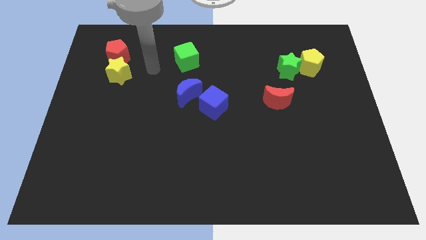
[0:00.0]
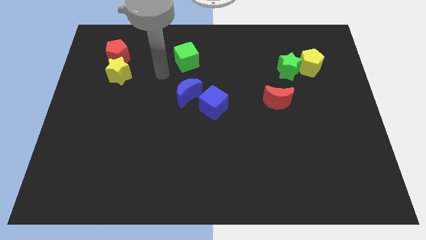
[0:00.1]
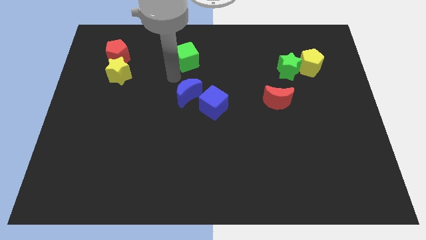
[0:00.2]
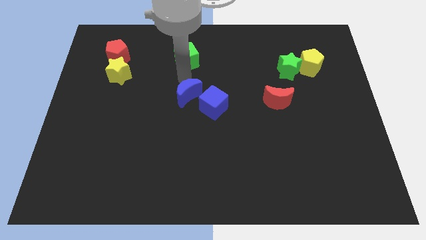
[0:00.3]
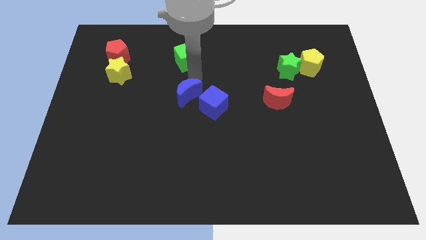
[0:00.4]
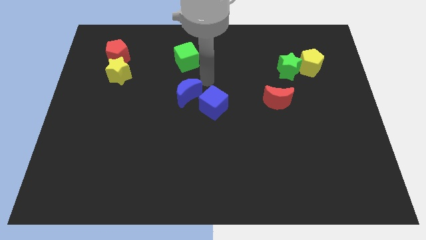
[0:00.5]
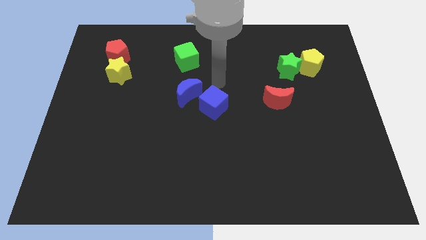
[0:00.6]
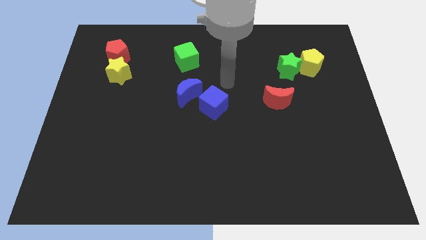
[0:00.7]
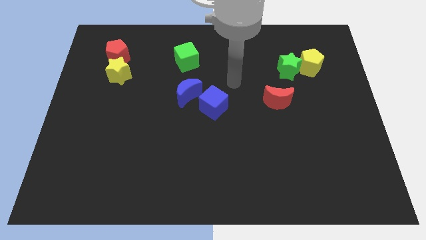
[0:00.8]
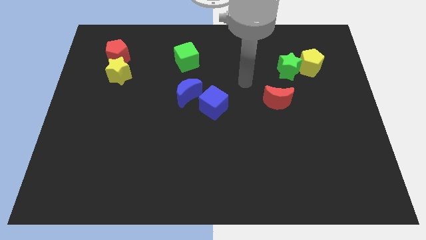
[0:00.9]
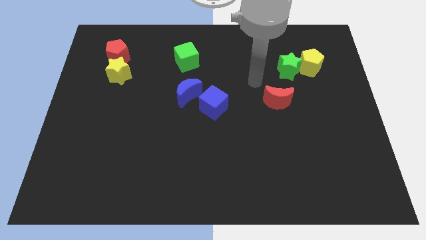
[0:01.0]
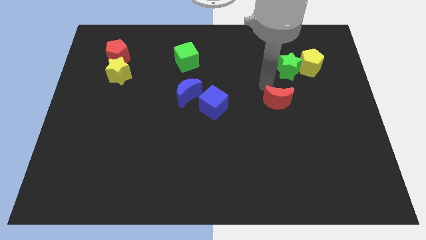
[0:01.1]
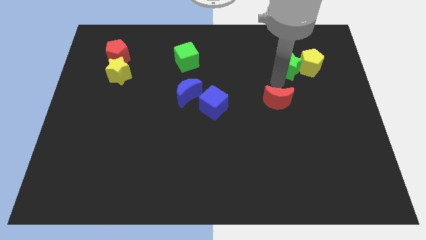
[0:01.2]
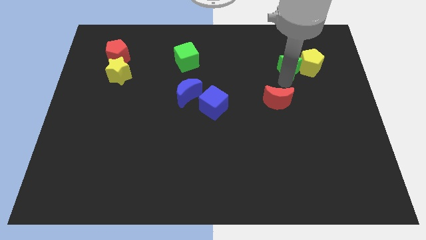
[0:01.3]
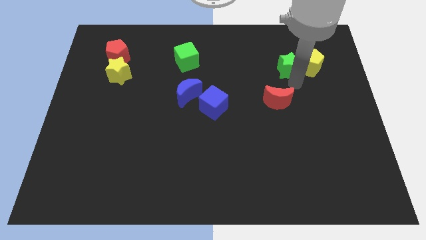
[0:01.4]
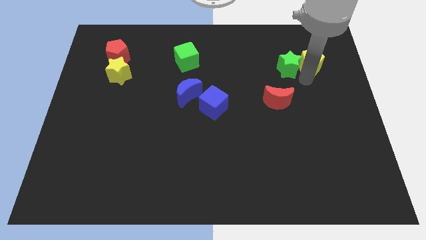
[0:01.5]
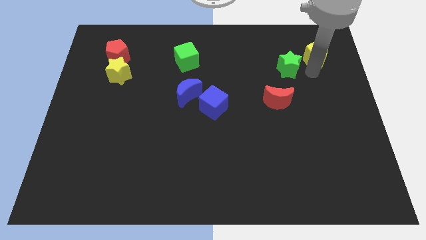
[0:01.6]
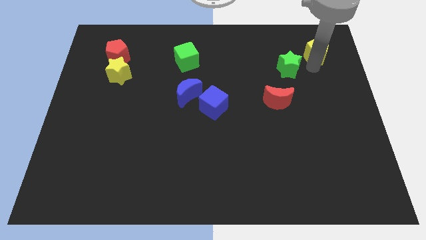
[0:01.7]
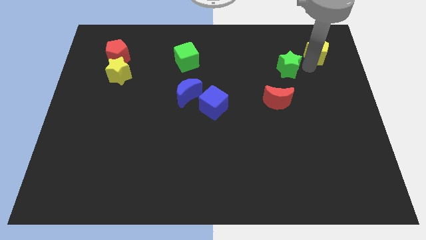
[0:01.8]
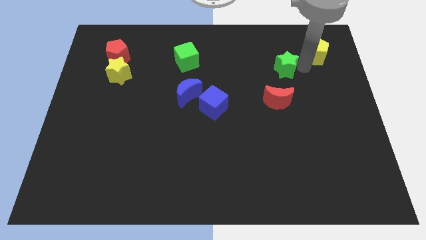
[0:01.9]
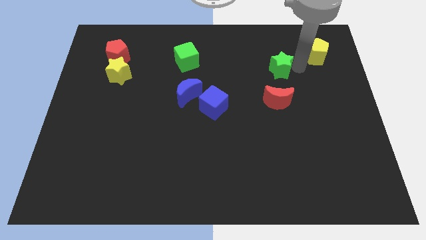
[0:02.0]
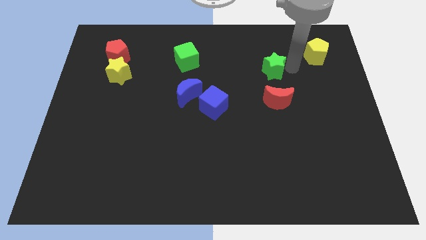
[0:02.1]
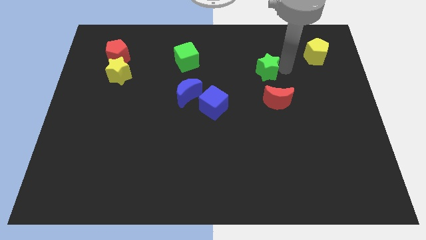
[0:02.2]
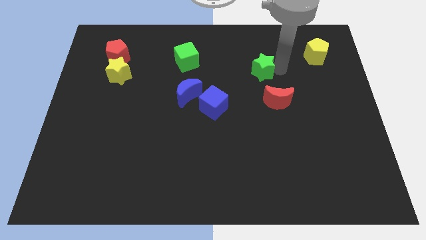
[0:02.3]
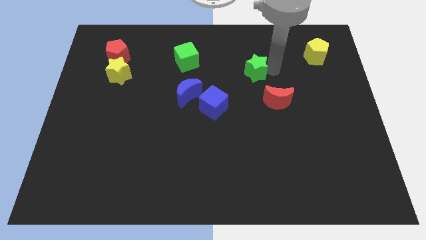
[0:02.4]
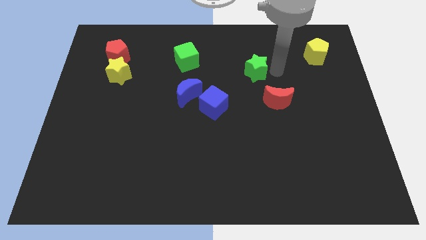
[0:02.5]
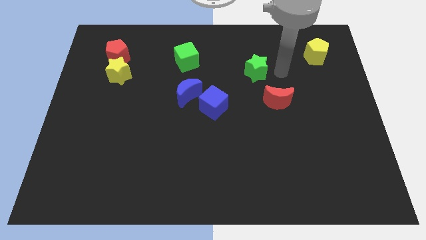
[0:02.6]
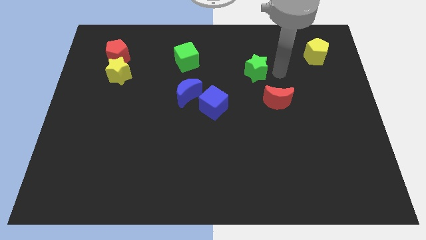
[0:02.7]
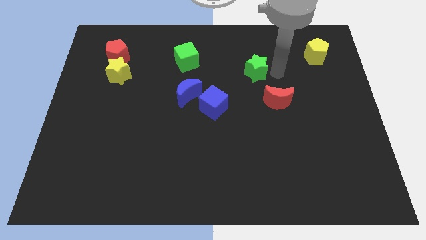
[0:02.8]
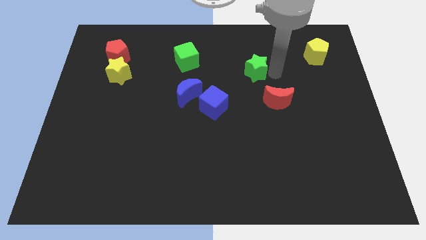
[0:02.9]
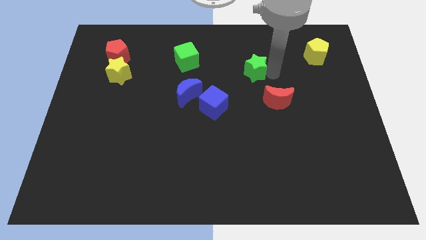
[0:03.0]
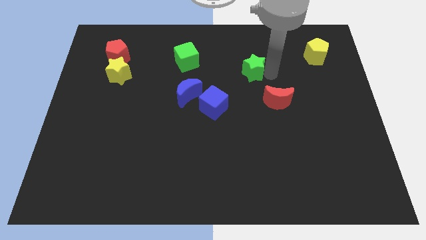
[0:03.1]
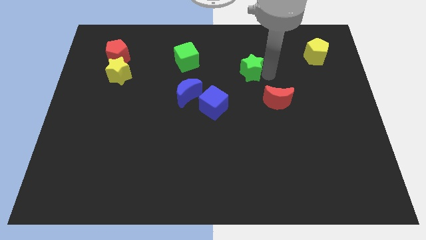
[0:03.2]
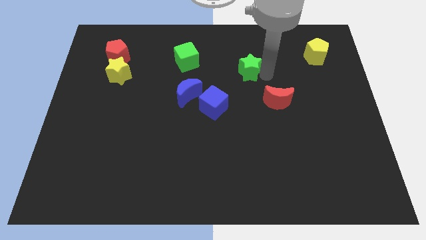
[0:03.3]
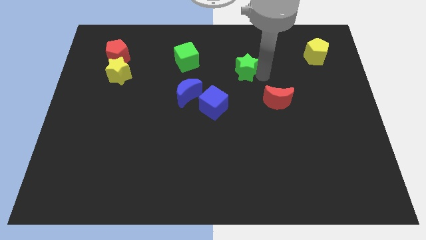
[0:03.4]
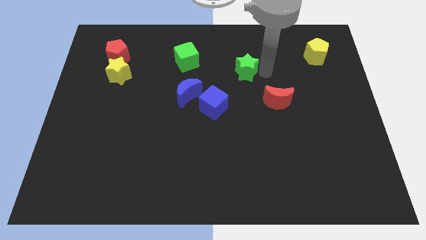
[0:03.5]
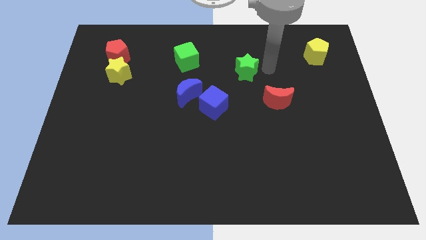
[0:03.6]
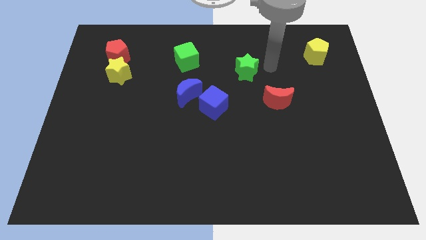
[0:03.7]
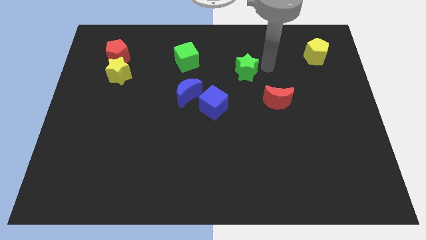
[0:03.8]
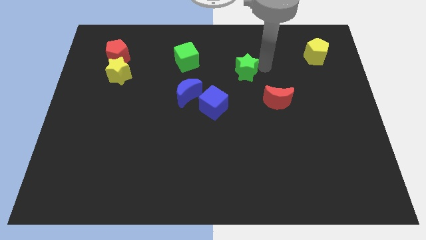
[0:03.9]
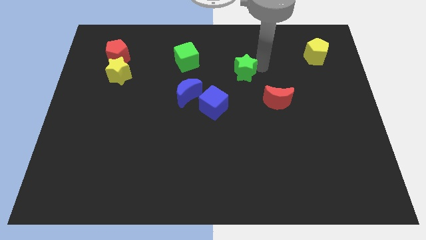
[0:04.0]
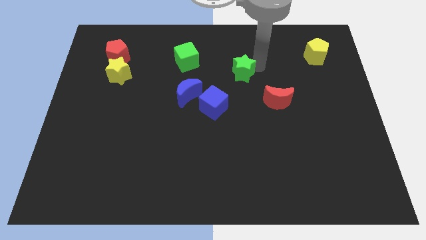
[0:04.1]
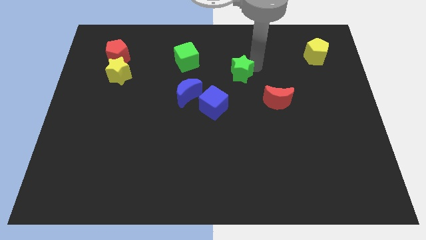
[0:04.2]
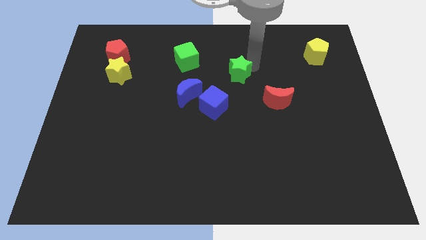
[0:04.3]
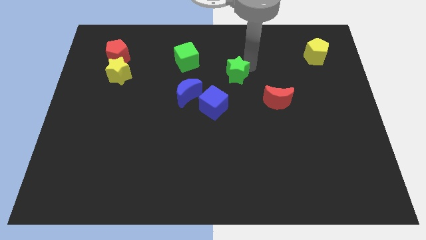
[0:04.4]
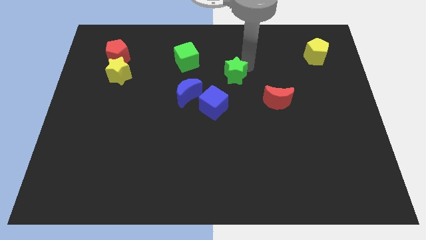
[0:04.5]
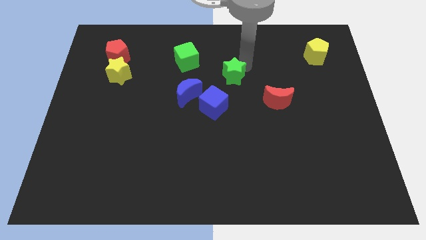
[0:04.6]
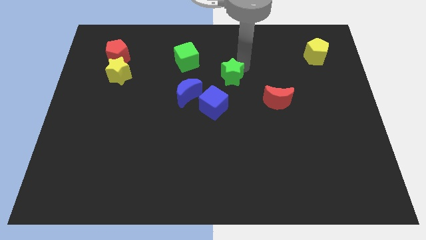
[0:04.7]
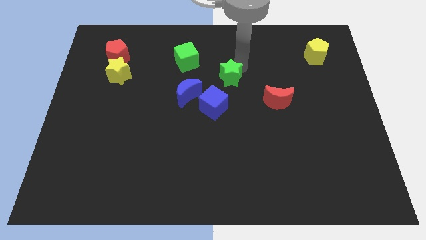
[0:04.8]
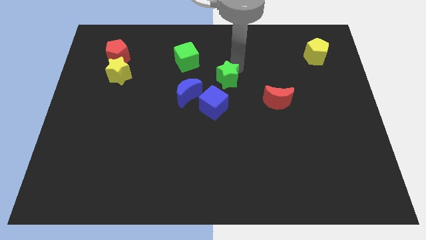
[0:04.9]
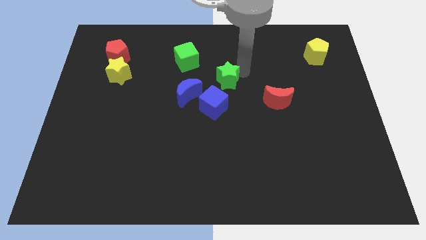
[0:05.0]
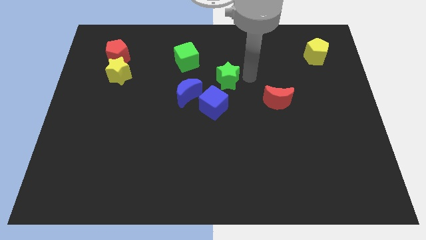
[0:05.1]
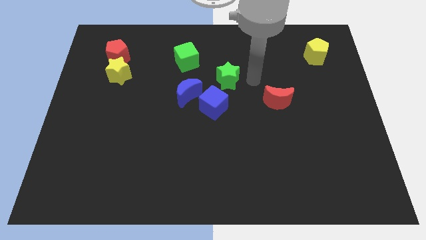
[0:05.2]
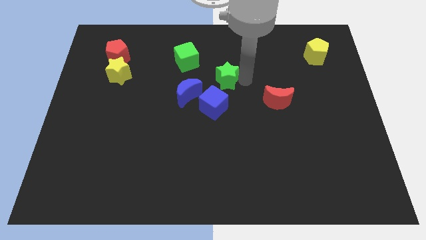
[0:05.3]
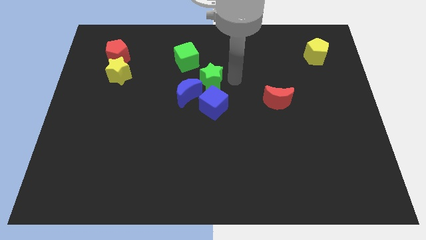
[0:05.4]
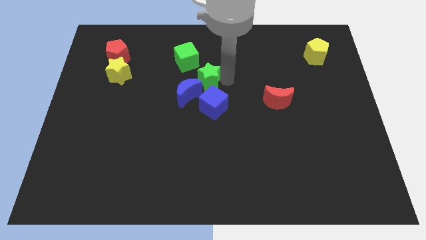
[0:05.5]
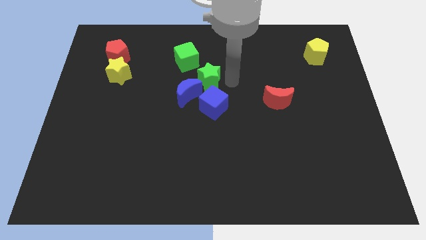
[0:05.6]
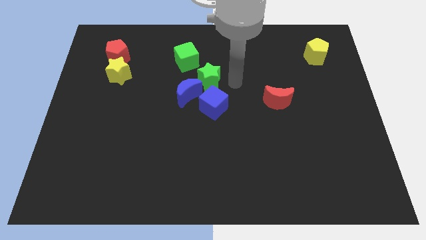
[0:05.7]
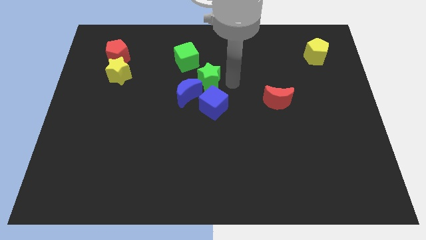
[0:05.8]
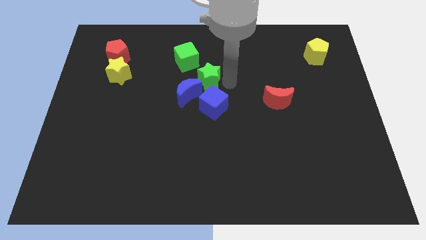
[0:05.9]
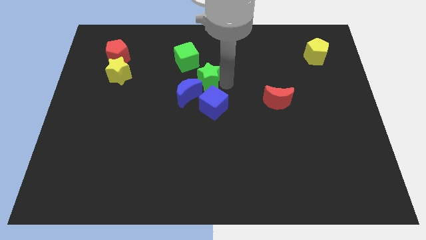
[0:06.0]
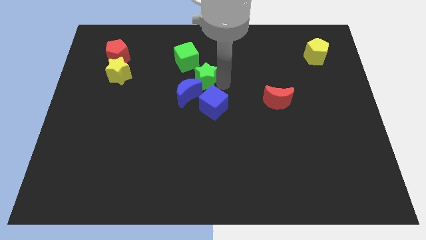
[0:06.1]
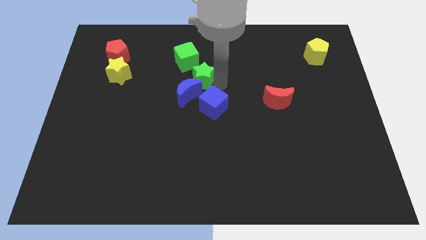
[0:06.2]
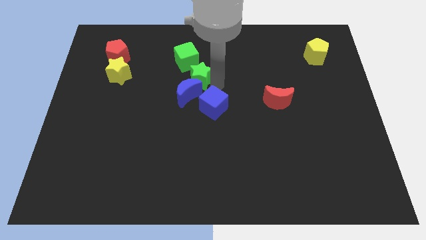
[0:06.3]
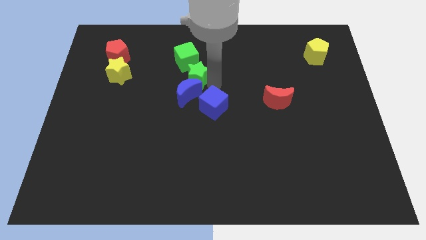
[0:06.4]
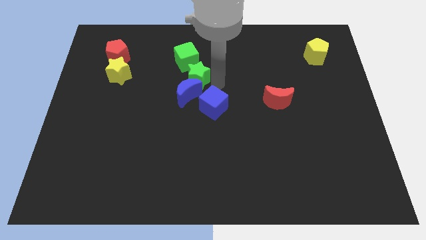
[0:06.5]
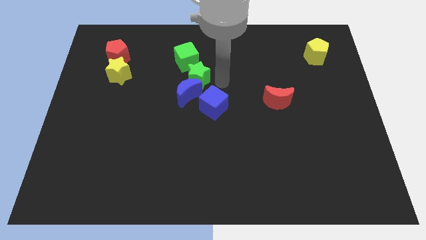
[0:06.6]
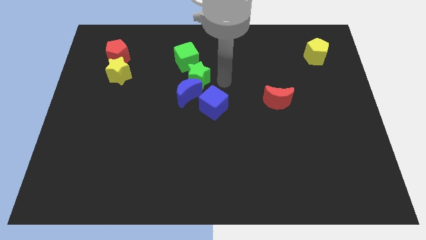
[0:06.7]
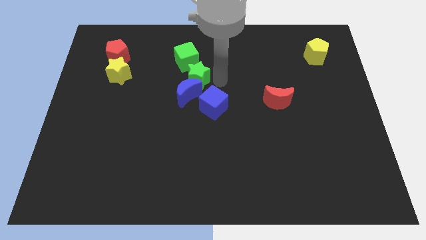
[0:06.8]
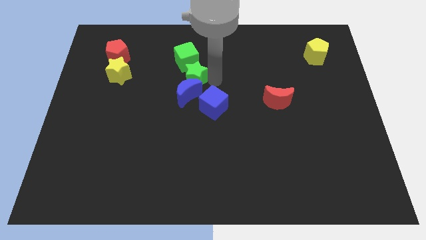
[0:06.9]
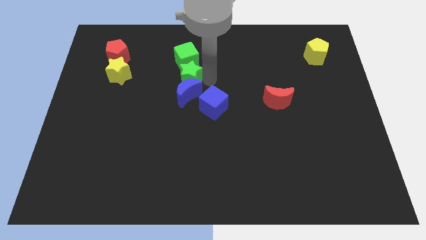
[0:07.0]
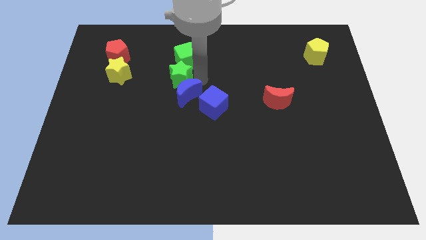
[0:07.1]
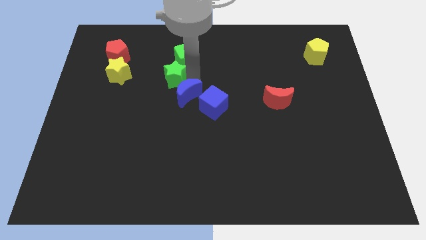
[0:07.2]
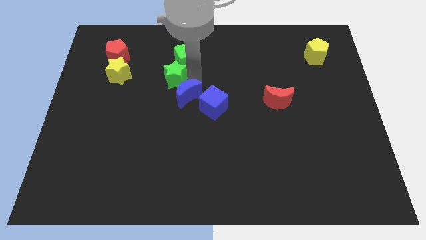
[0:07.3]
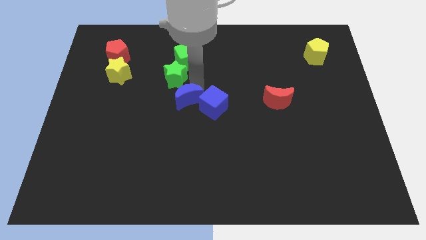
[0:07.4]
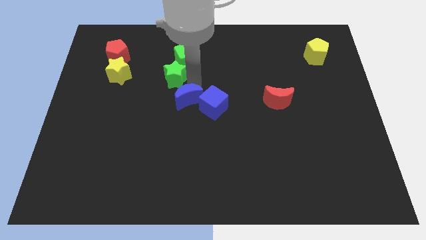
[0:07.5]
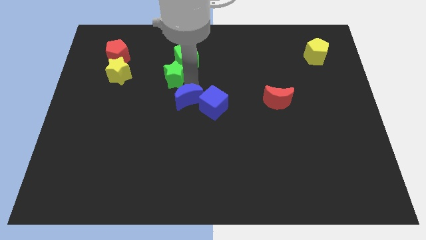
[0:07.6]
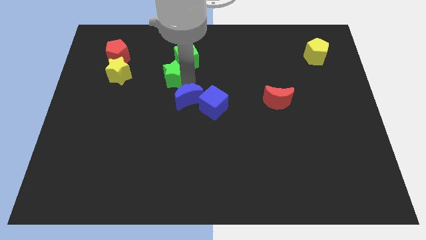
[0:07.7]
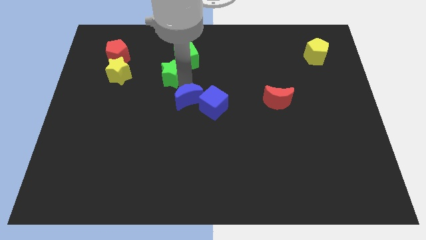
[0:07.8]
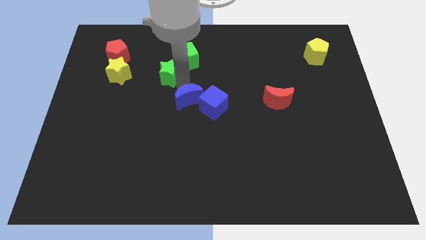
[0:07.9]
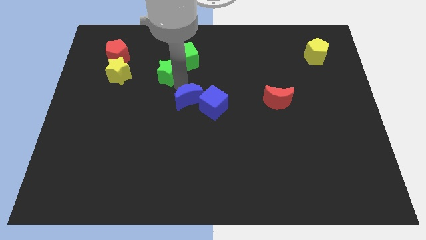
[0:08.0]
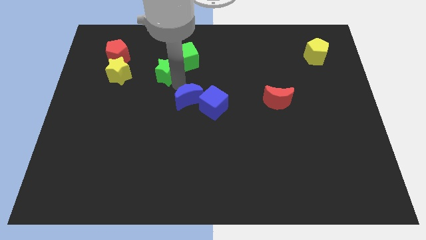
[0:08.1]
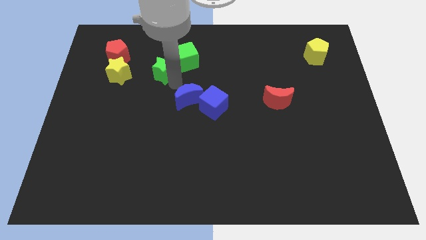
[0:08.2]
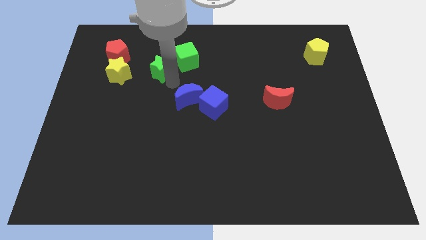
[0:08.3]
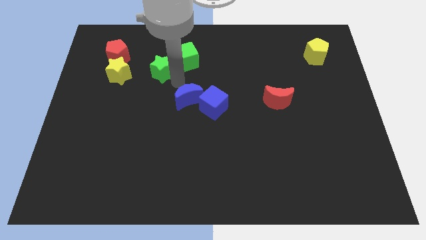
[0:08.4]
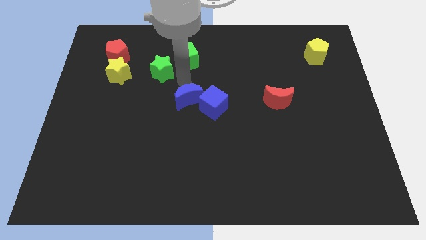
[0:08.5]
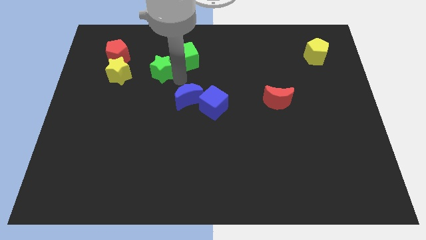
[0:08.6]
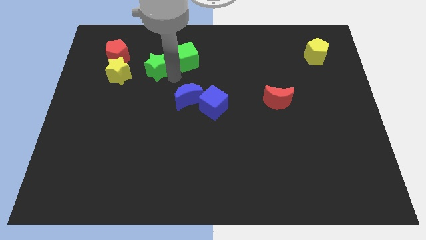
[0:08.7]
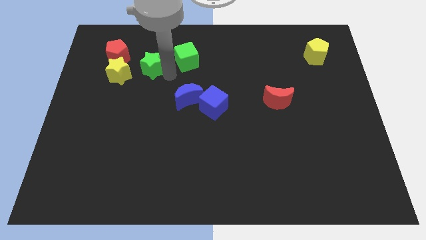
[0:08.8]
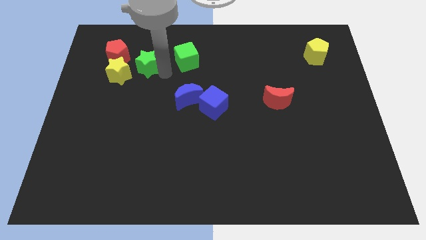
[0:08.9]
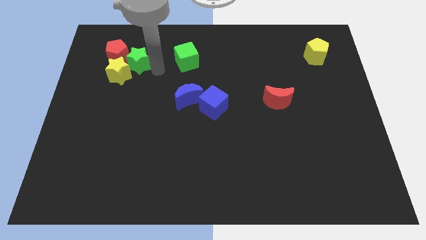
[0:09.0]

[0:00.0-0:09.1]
push the green star towards the red pentagon
